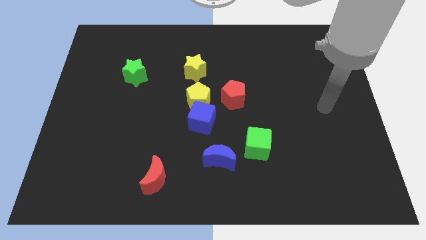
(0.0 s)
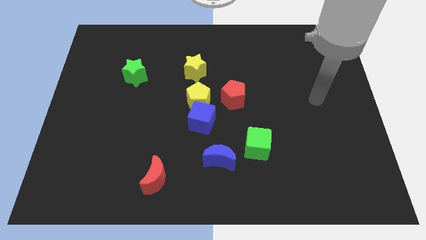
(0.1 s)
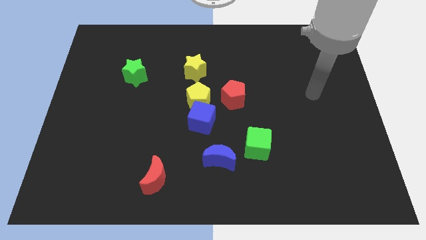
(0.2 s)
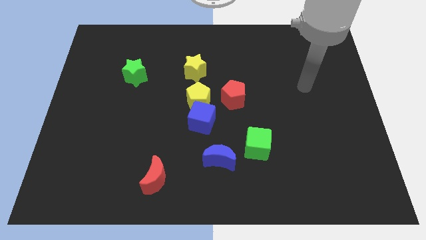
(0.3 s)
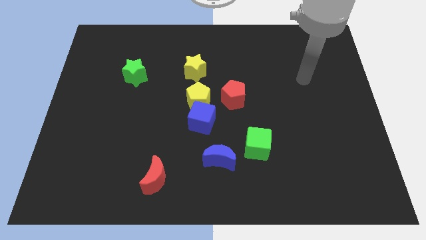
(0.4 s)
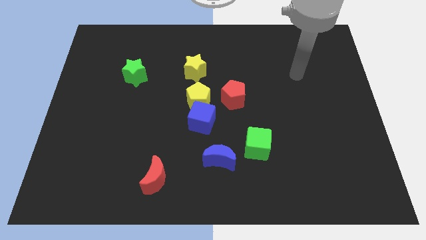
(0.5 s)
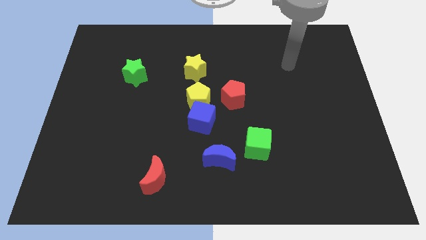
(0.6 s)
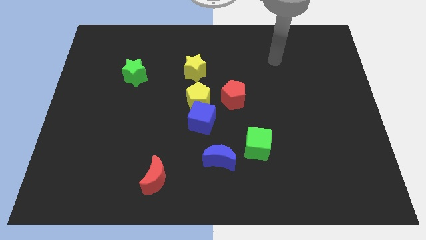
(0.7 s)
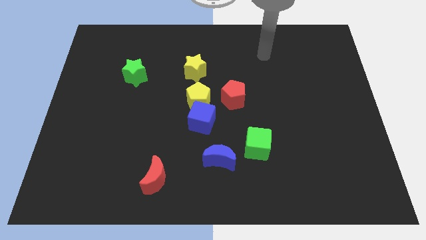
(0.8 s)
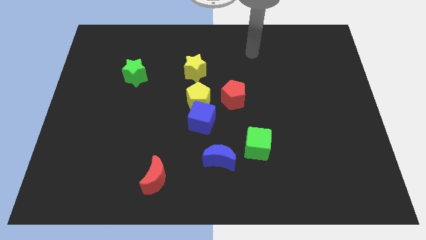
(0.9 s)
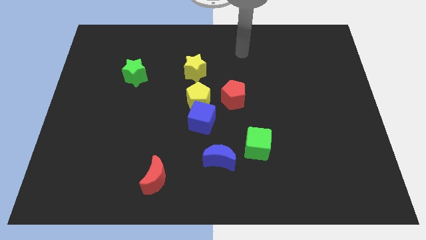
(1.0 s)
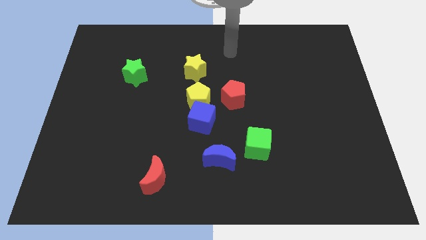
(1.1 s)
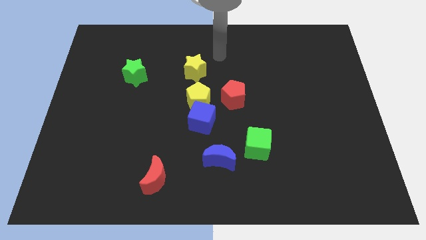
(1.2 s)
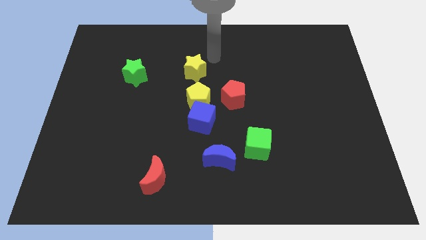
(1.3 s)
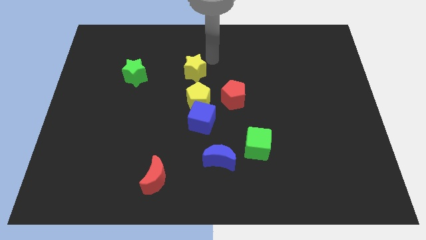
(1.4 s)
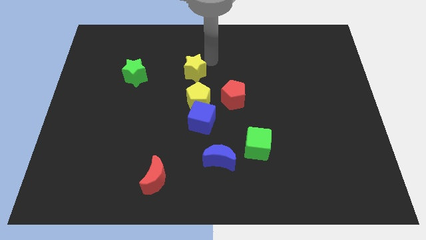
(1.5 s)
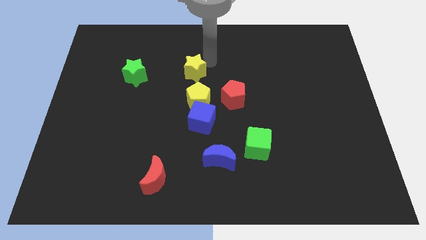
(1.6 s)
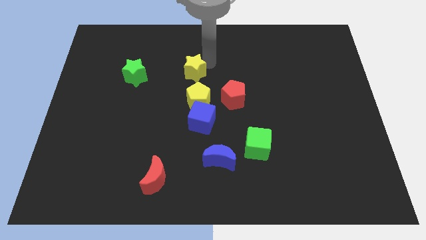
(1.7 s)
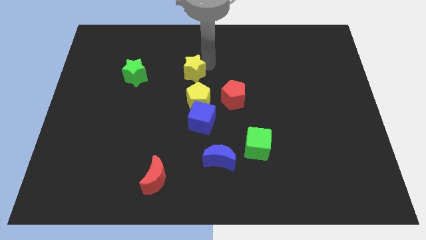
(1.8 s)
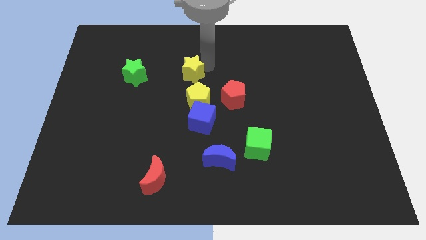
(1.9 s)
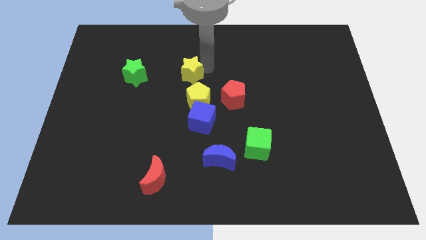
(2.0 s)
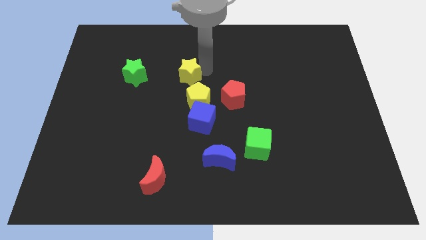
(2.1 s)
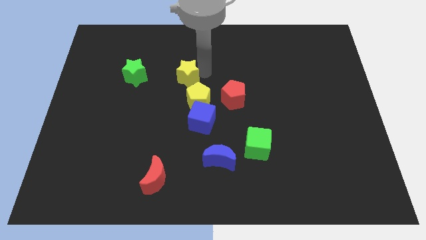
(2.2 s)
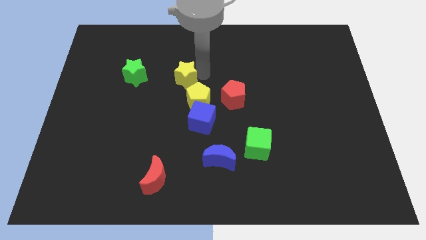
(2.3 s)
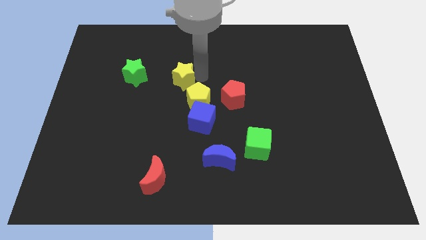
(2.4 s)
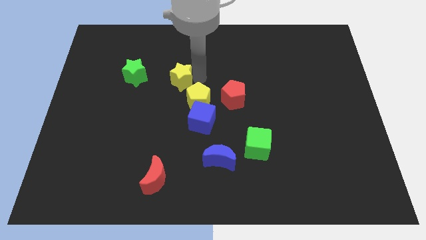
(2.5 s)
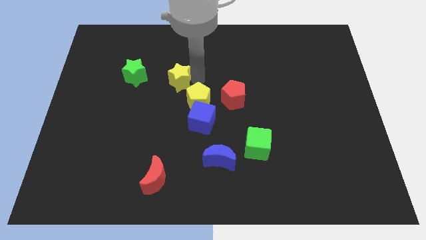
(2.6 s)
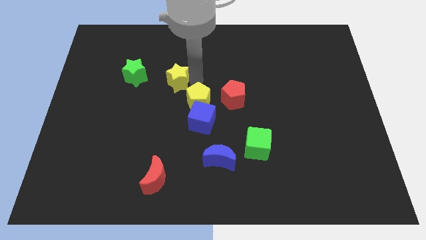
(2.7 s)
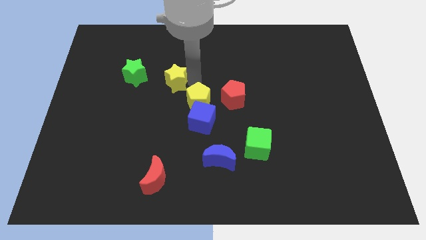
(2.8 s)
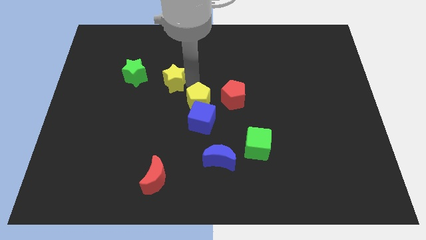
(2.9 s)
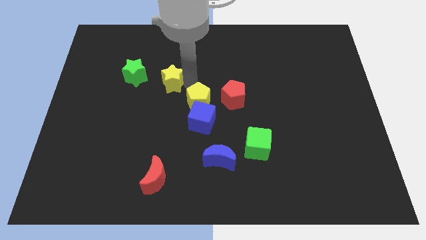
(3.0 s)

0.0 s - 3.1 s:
slide the yellow star a little bit downwards and to the left

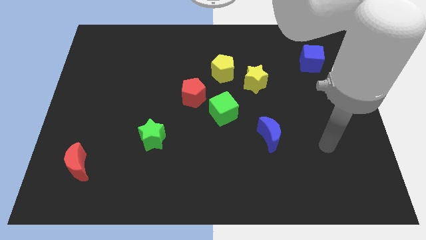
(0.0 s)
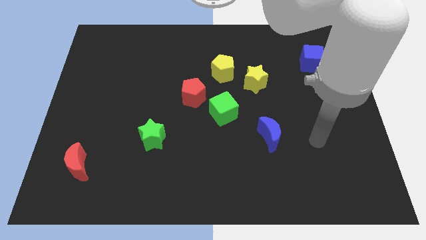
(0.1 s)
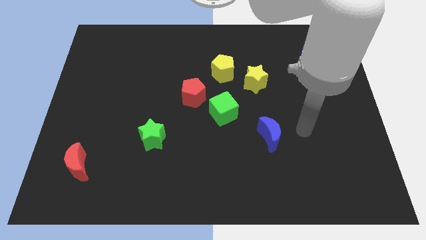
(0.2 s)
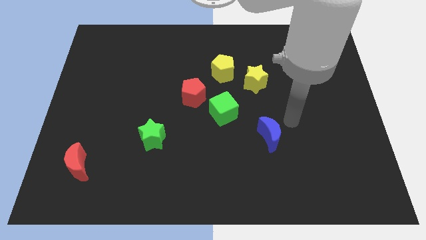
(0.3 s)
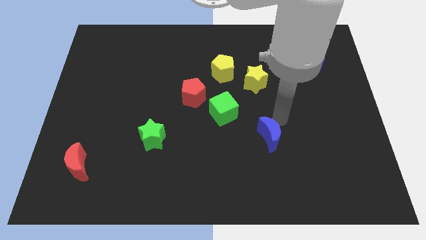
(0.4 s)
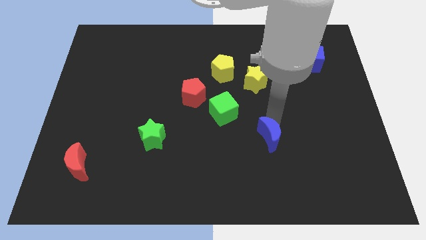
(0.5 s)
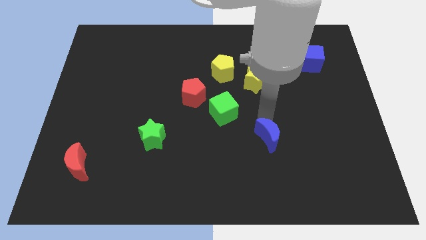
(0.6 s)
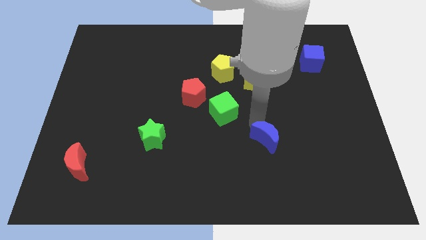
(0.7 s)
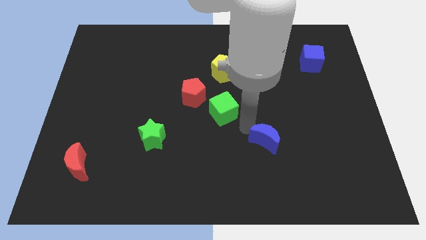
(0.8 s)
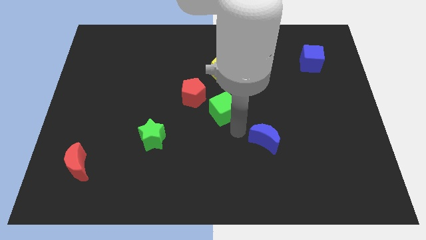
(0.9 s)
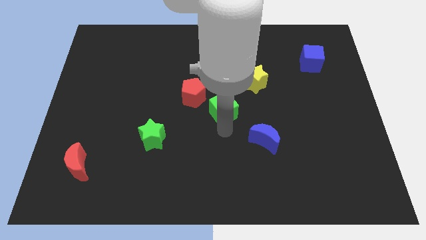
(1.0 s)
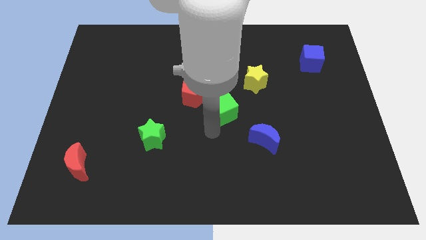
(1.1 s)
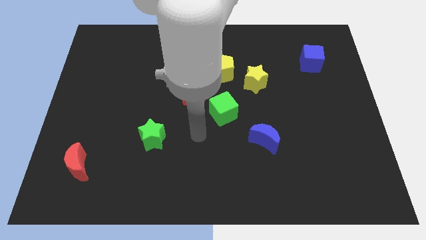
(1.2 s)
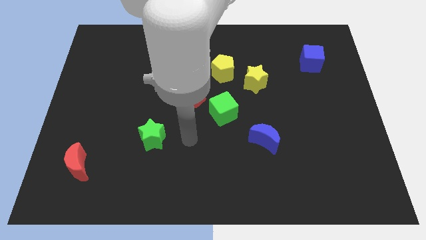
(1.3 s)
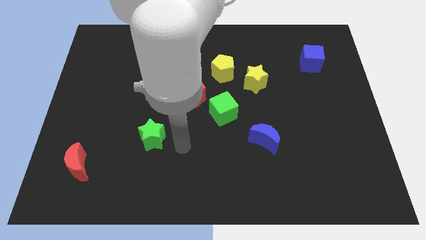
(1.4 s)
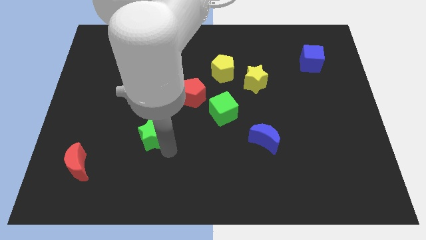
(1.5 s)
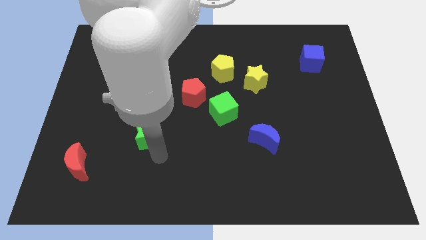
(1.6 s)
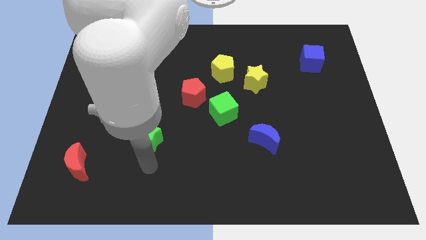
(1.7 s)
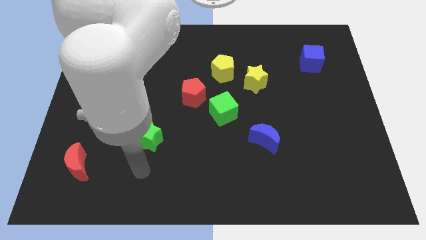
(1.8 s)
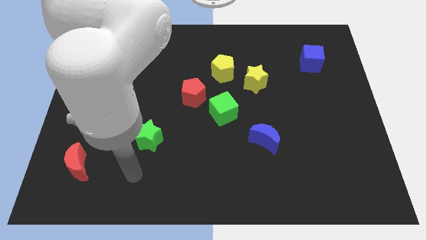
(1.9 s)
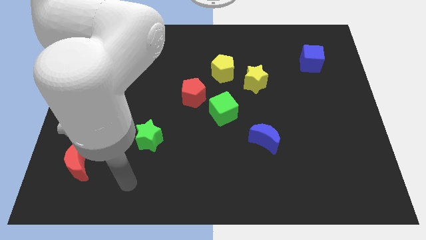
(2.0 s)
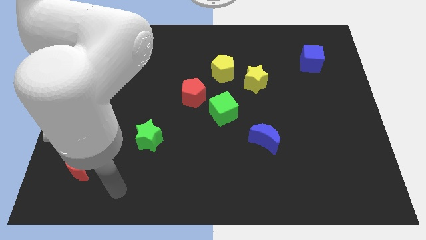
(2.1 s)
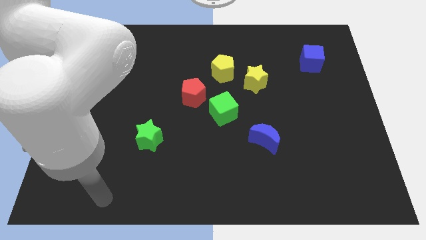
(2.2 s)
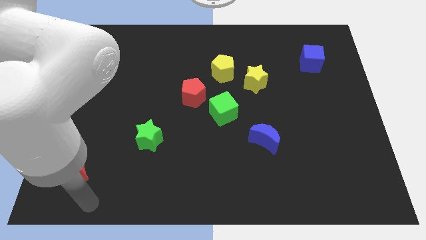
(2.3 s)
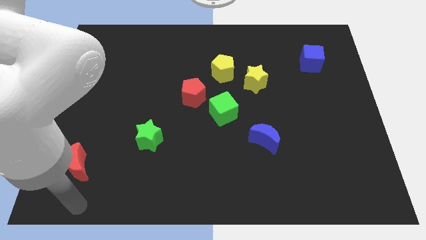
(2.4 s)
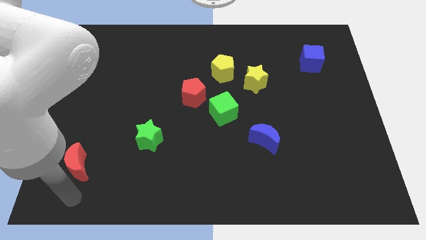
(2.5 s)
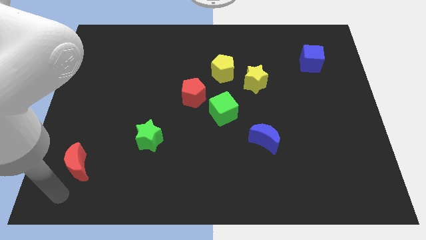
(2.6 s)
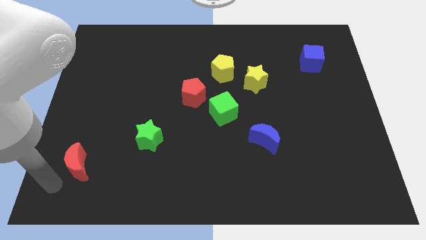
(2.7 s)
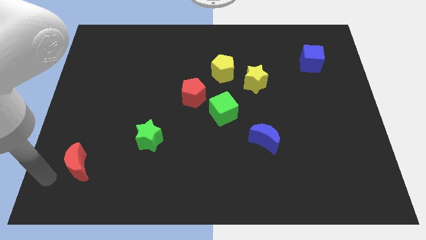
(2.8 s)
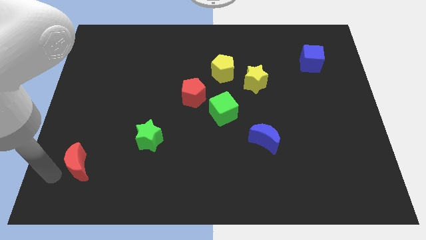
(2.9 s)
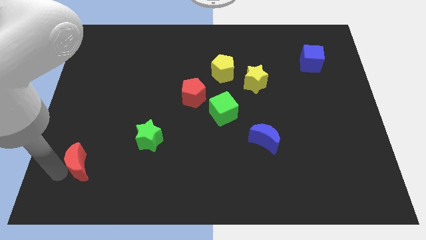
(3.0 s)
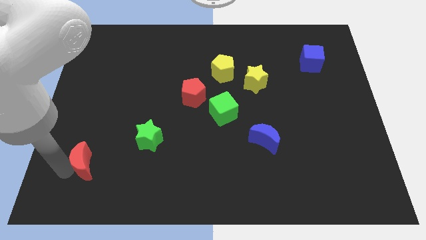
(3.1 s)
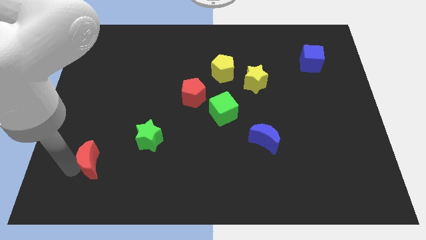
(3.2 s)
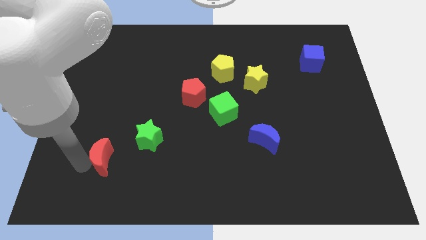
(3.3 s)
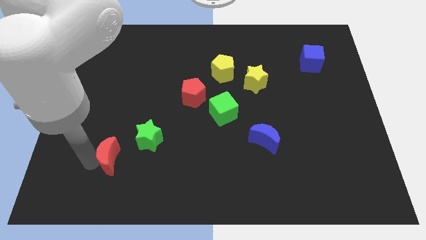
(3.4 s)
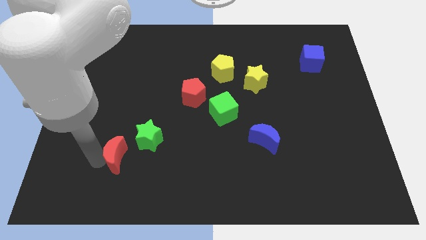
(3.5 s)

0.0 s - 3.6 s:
slide the red moon to the right a bit

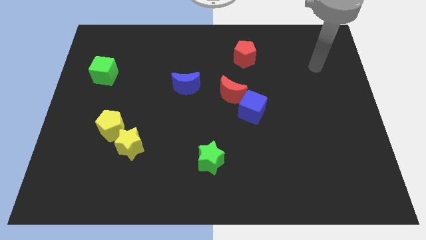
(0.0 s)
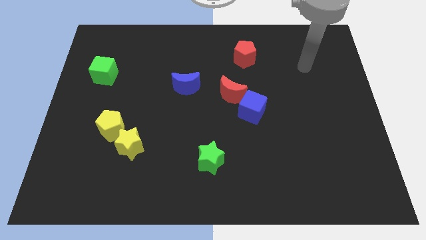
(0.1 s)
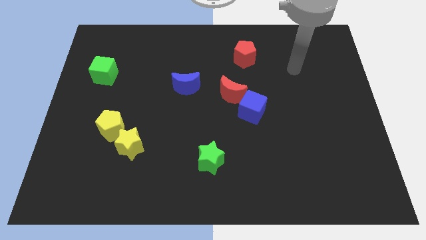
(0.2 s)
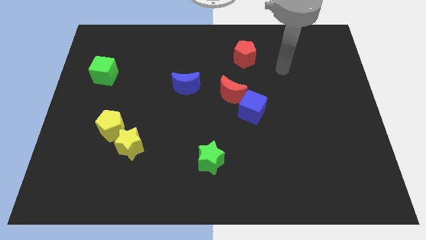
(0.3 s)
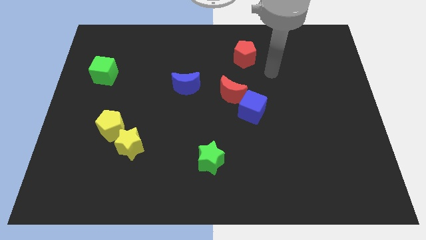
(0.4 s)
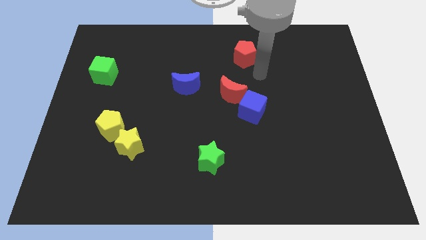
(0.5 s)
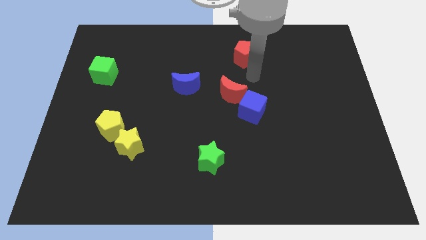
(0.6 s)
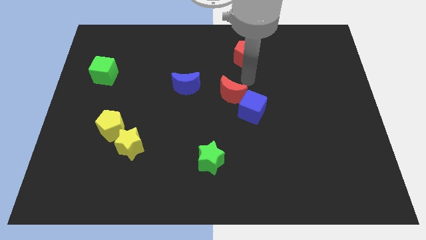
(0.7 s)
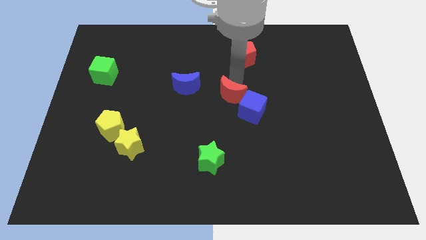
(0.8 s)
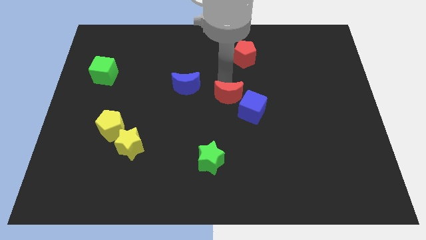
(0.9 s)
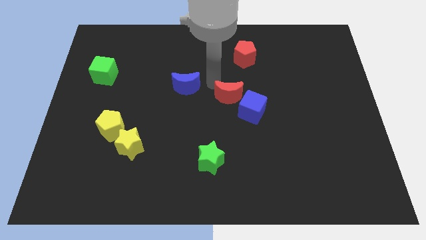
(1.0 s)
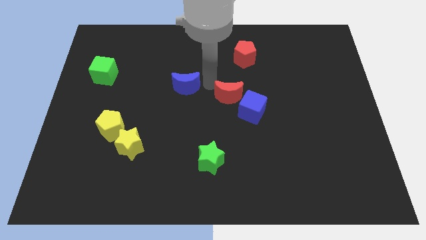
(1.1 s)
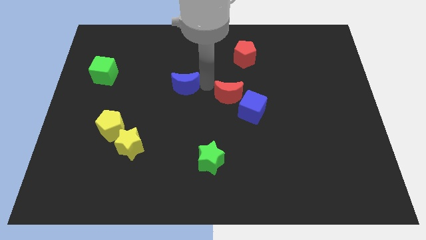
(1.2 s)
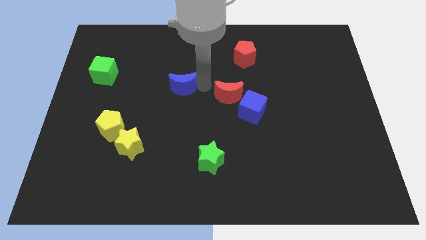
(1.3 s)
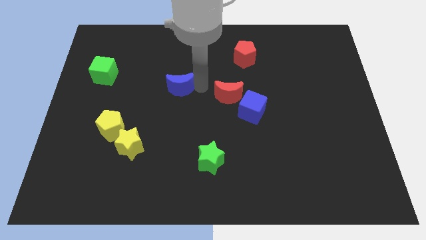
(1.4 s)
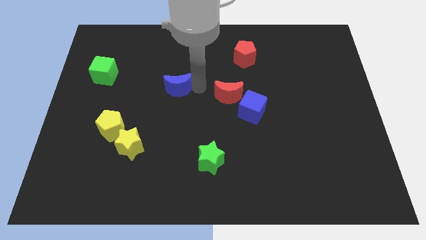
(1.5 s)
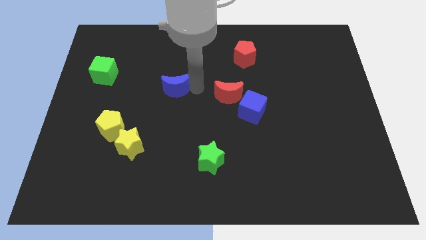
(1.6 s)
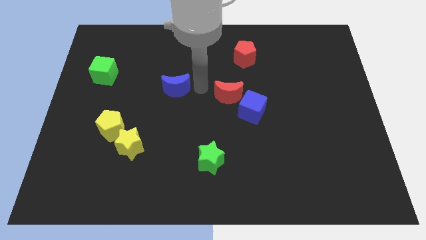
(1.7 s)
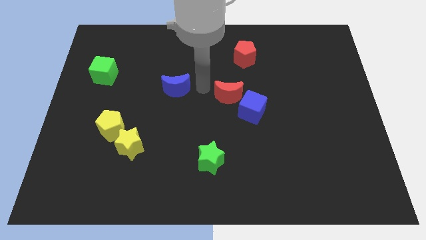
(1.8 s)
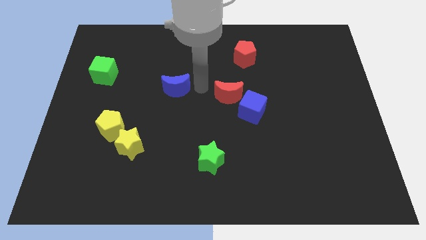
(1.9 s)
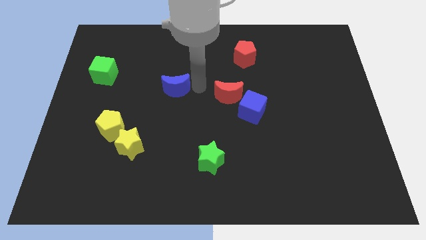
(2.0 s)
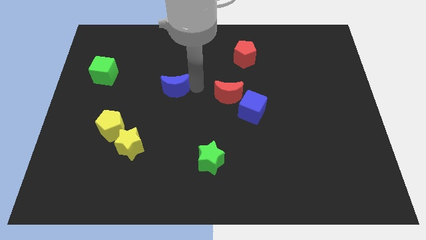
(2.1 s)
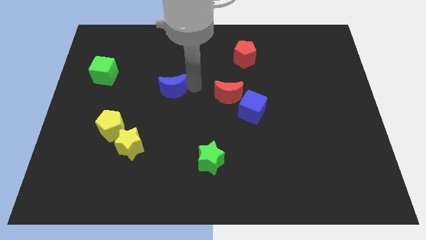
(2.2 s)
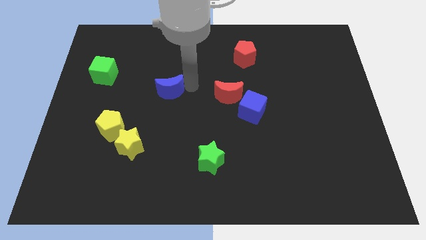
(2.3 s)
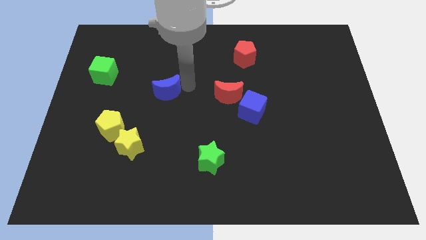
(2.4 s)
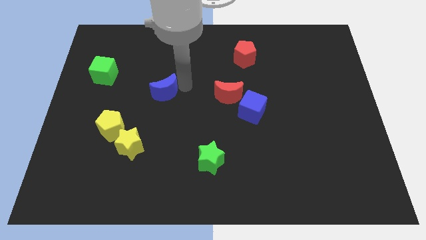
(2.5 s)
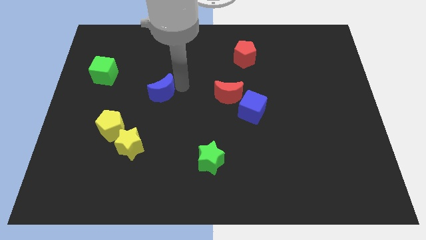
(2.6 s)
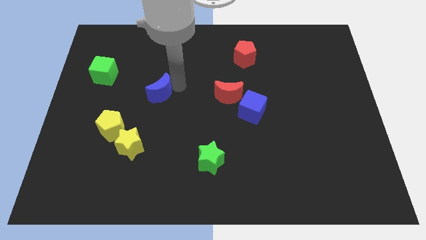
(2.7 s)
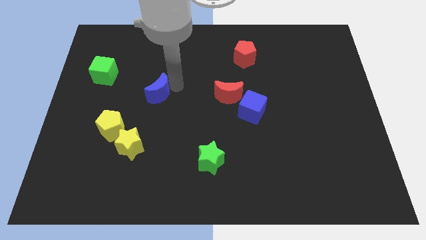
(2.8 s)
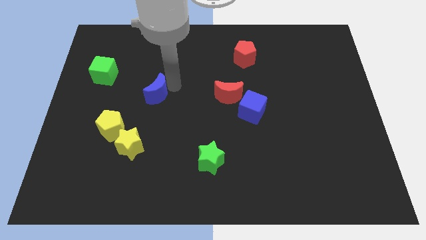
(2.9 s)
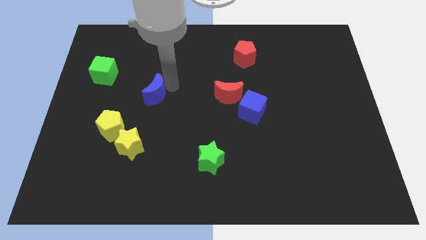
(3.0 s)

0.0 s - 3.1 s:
push the blue moon somewhat to the left
